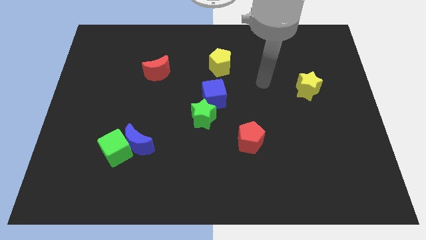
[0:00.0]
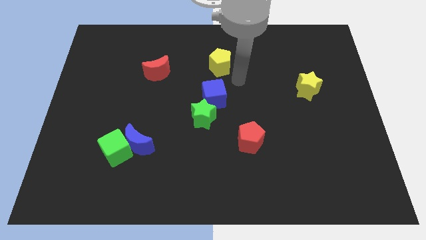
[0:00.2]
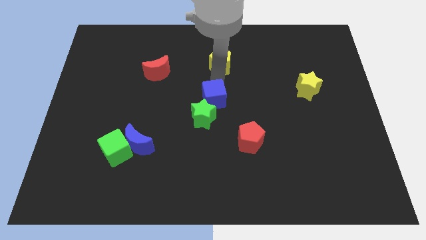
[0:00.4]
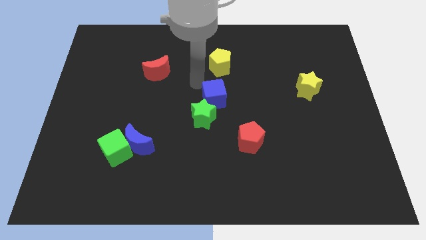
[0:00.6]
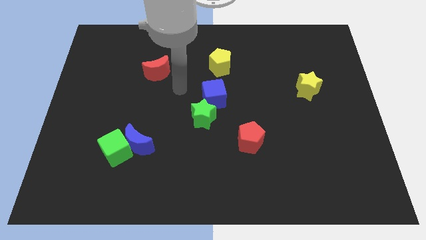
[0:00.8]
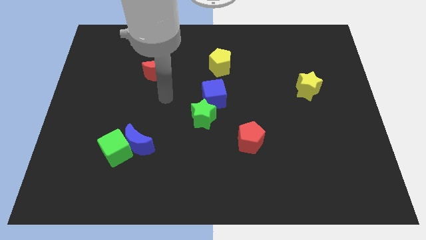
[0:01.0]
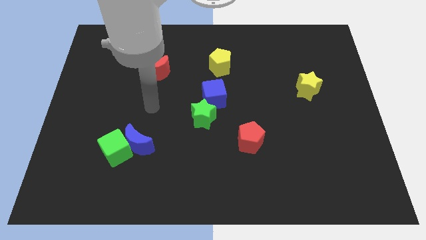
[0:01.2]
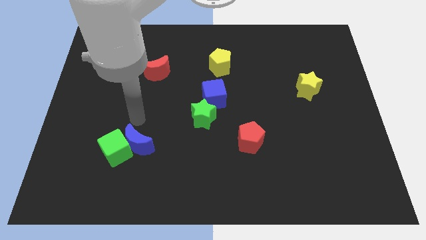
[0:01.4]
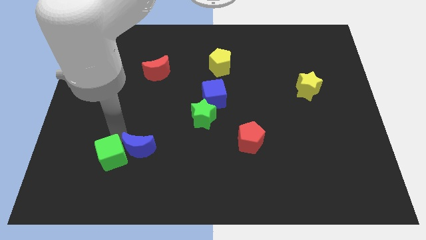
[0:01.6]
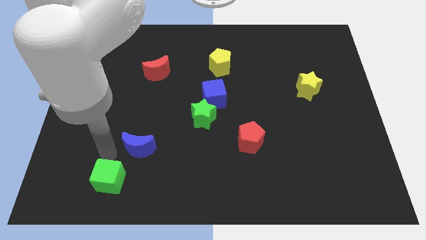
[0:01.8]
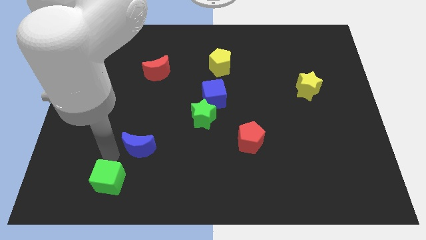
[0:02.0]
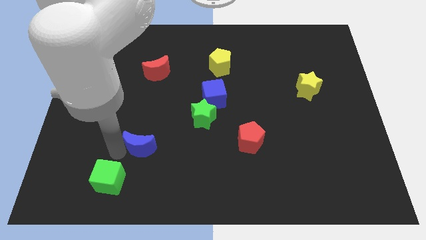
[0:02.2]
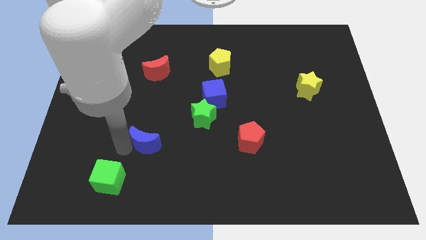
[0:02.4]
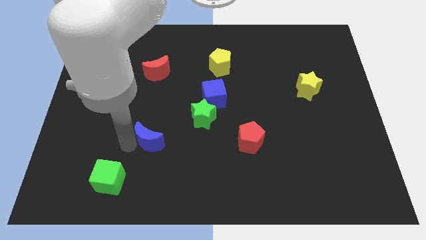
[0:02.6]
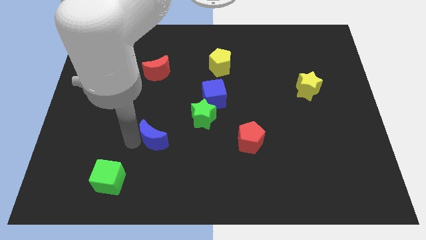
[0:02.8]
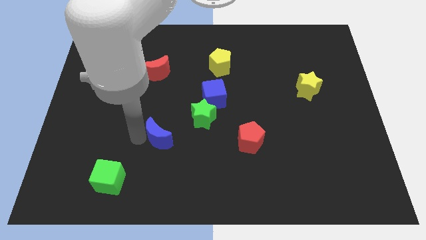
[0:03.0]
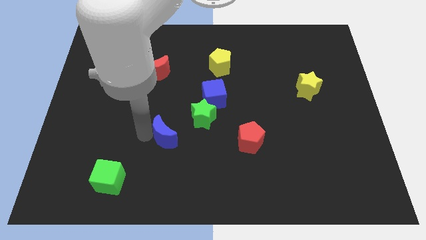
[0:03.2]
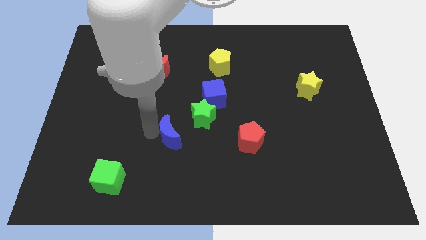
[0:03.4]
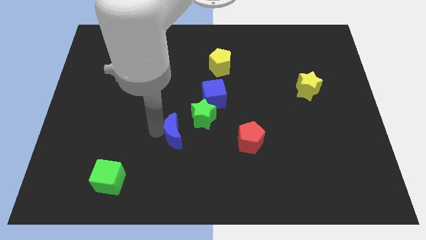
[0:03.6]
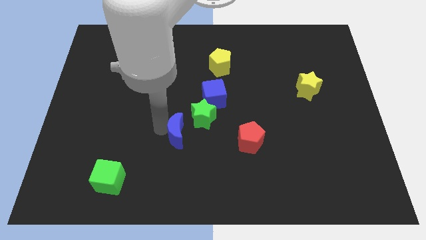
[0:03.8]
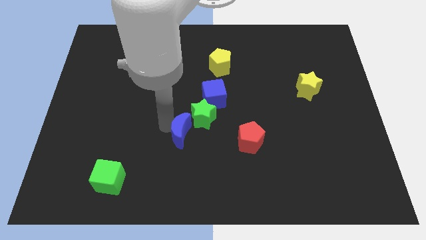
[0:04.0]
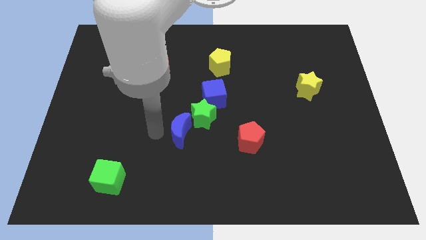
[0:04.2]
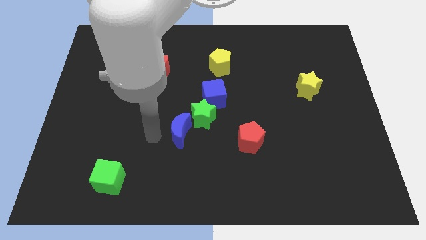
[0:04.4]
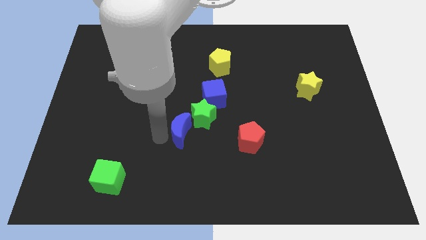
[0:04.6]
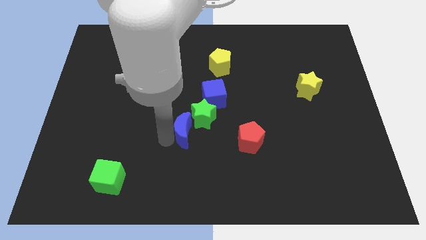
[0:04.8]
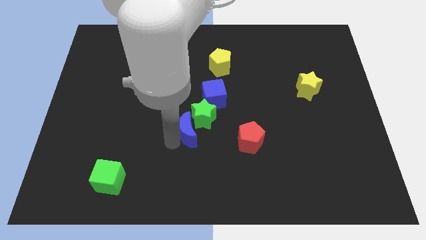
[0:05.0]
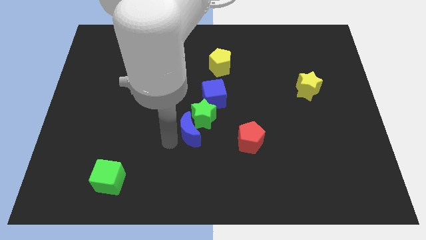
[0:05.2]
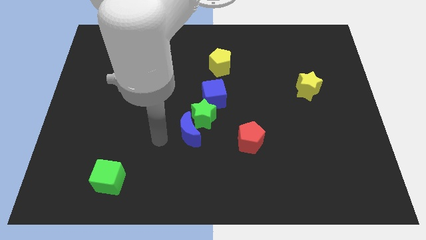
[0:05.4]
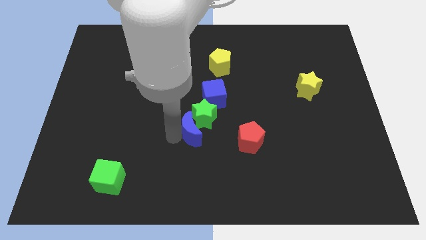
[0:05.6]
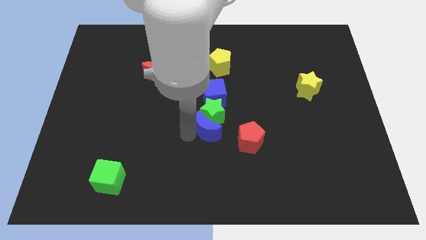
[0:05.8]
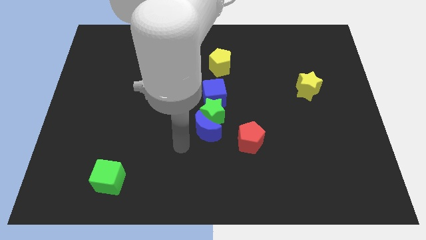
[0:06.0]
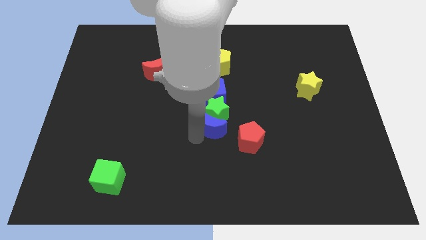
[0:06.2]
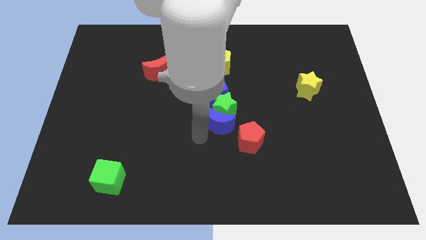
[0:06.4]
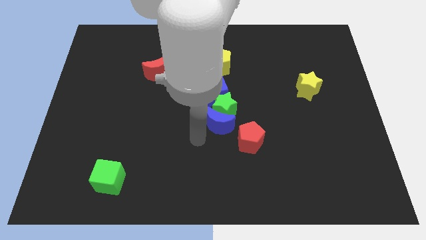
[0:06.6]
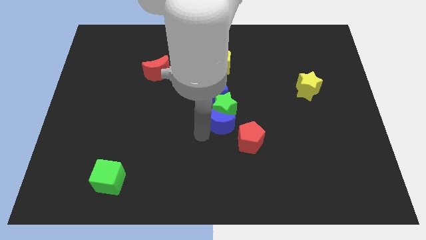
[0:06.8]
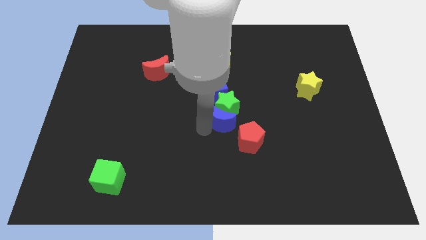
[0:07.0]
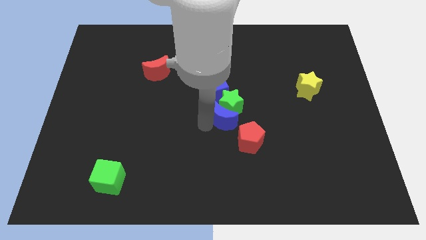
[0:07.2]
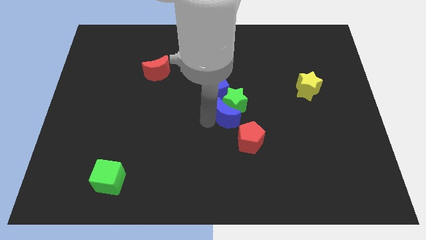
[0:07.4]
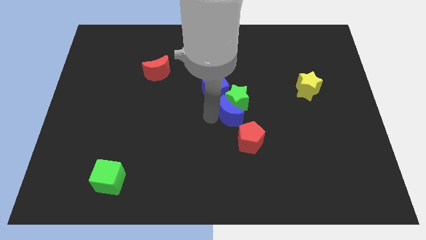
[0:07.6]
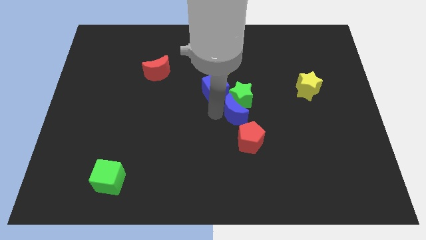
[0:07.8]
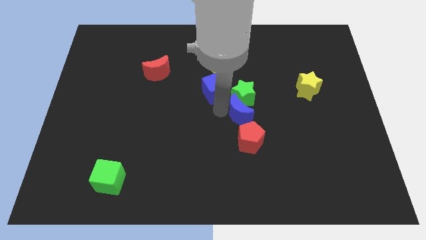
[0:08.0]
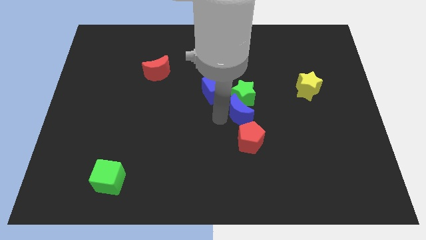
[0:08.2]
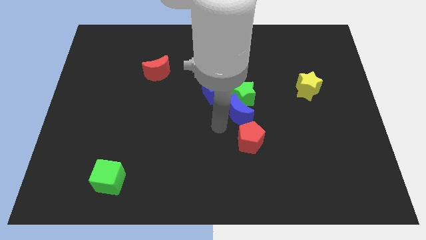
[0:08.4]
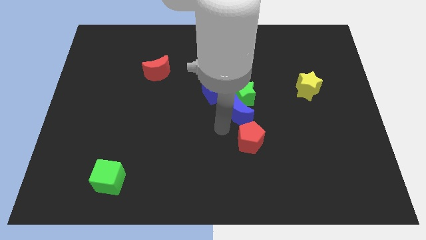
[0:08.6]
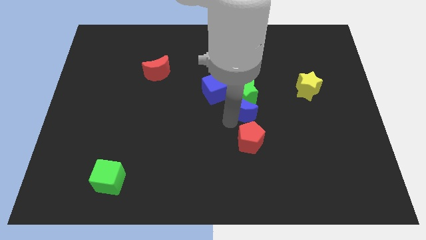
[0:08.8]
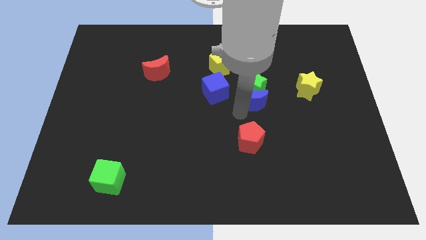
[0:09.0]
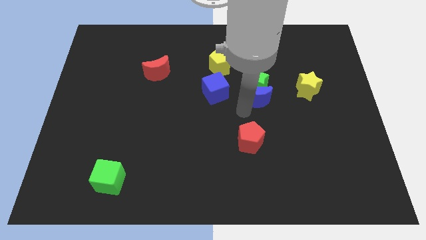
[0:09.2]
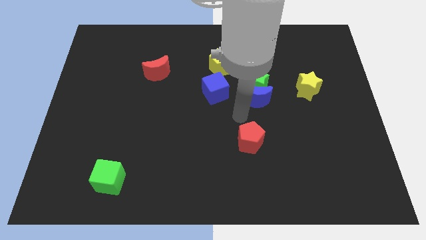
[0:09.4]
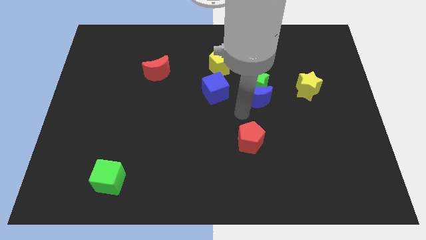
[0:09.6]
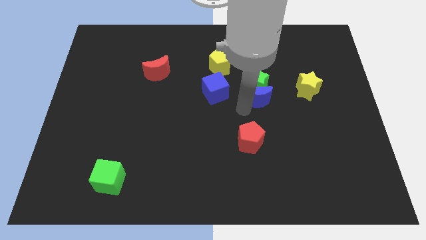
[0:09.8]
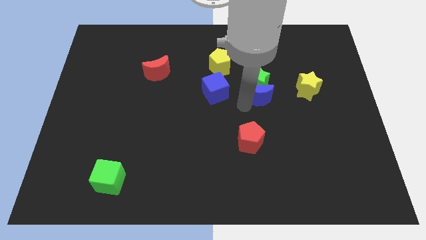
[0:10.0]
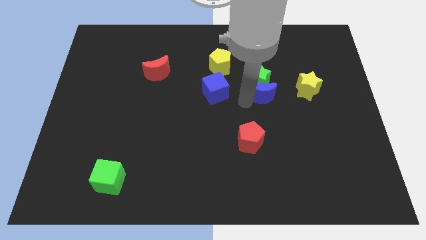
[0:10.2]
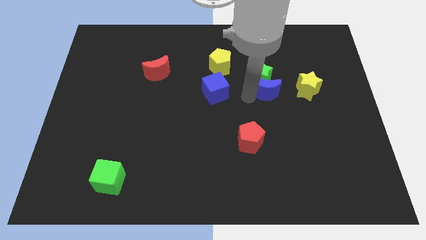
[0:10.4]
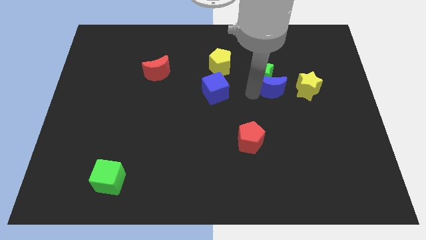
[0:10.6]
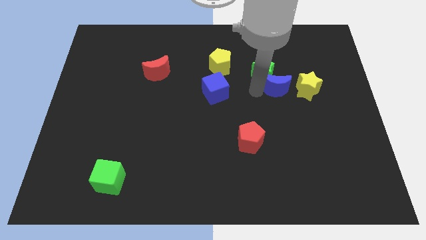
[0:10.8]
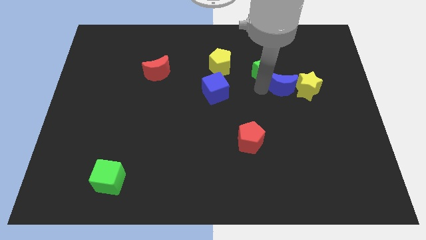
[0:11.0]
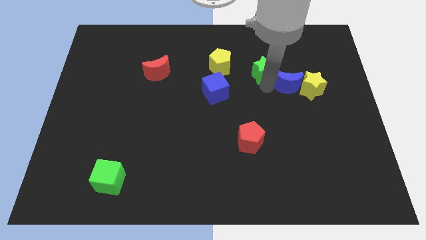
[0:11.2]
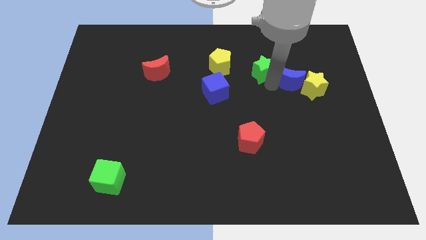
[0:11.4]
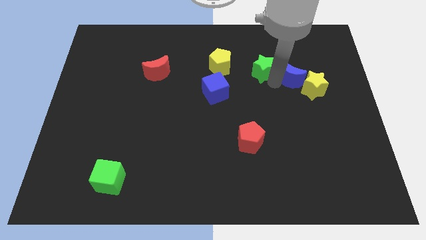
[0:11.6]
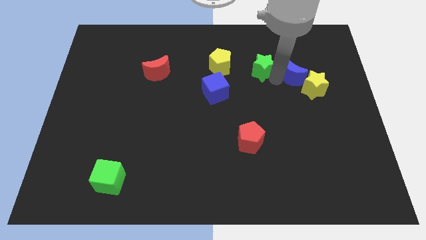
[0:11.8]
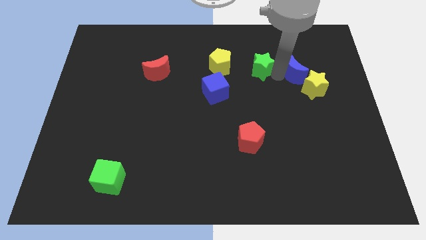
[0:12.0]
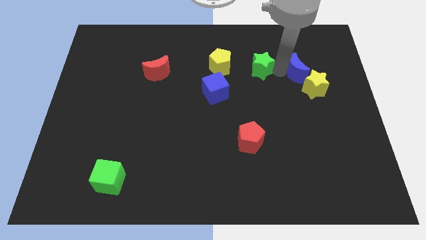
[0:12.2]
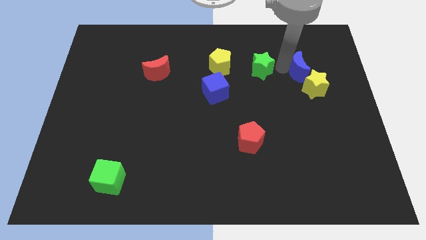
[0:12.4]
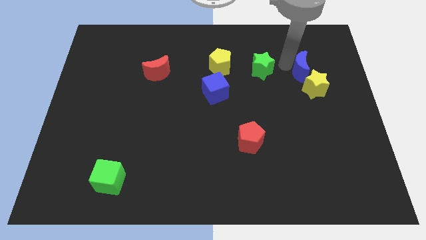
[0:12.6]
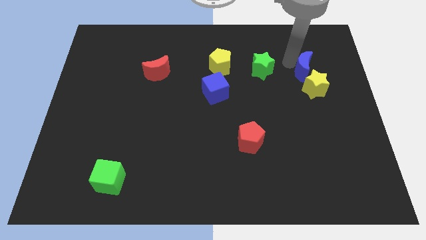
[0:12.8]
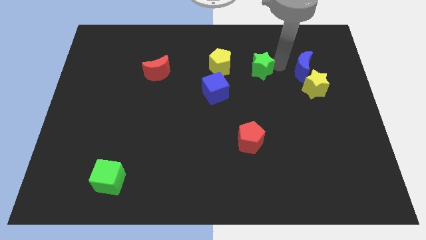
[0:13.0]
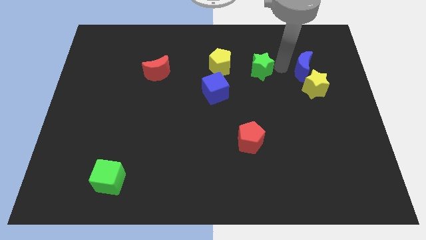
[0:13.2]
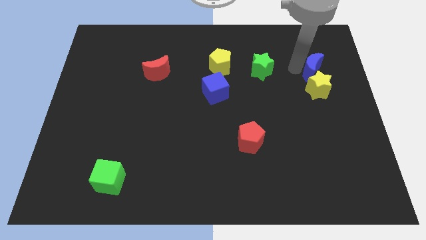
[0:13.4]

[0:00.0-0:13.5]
put the blue moon to the top right side of the yellow star

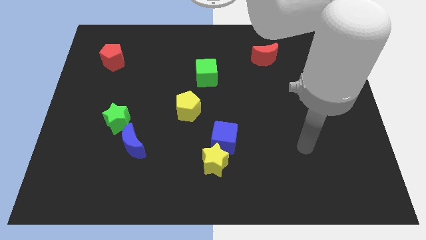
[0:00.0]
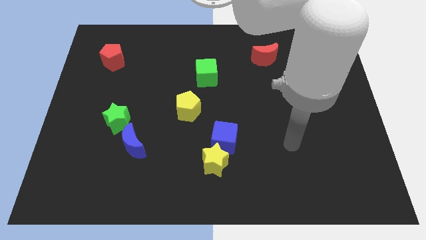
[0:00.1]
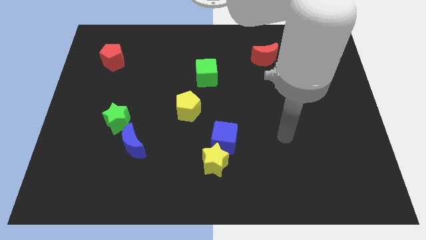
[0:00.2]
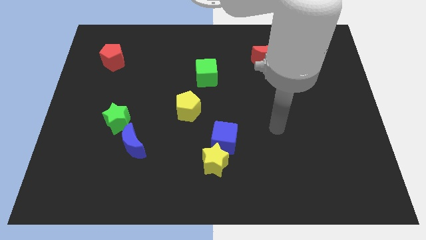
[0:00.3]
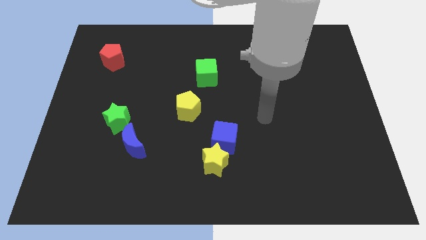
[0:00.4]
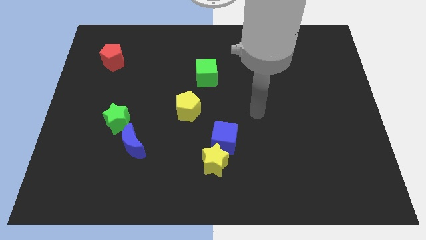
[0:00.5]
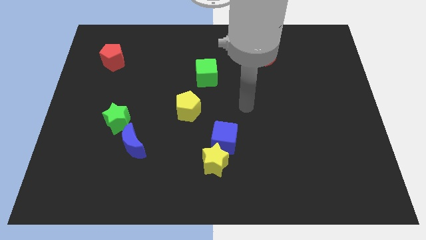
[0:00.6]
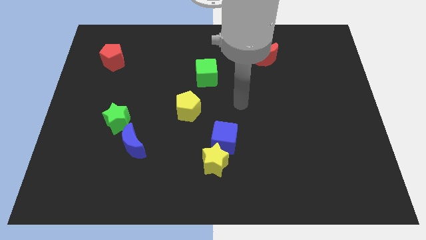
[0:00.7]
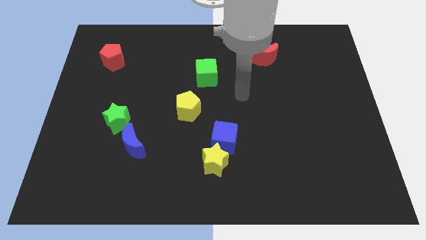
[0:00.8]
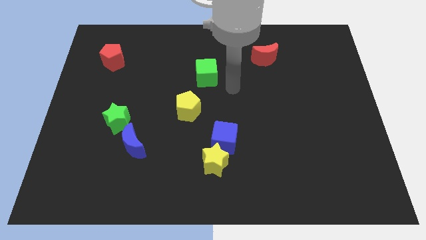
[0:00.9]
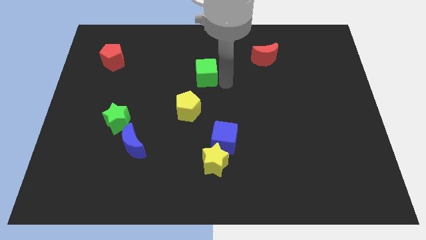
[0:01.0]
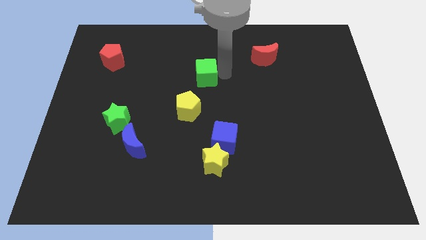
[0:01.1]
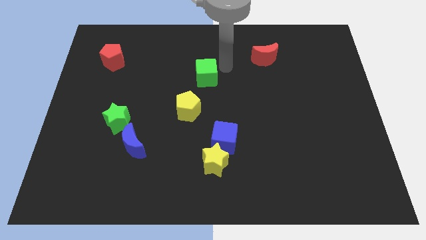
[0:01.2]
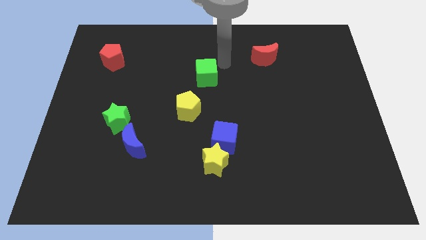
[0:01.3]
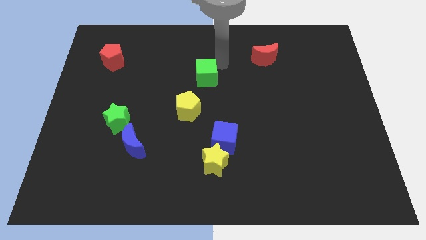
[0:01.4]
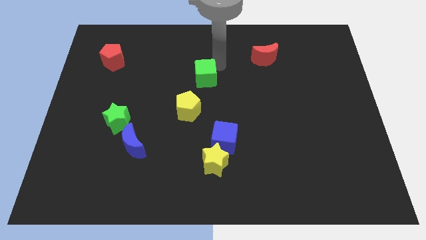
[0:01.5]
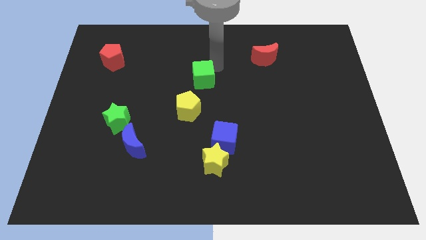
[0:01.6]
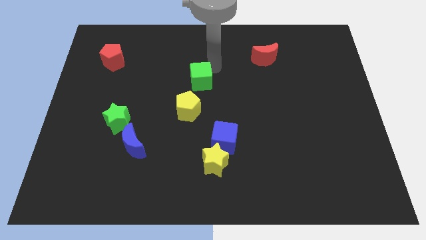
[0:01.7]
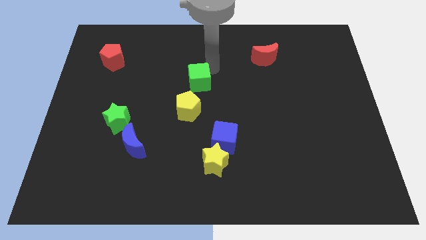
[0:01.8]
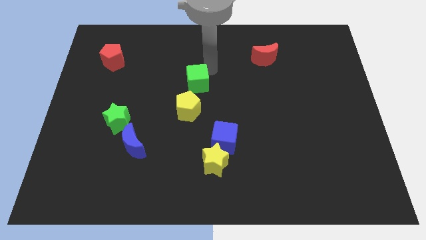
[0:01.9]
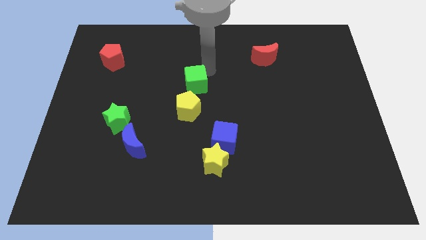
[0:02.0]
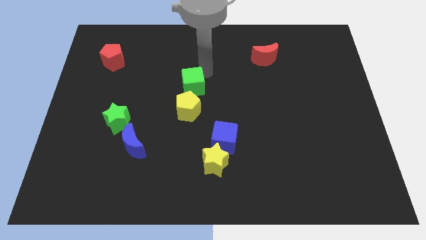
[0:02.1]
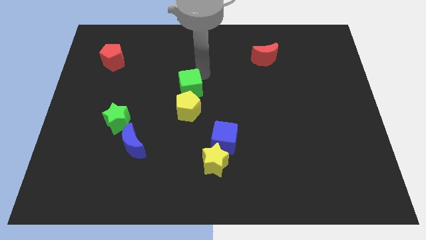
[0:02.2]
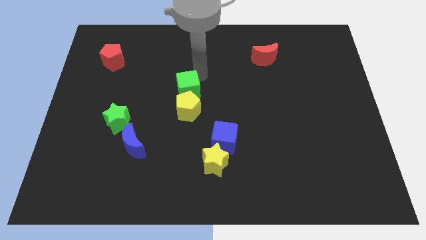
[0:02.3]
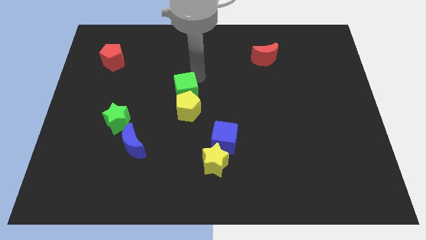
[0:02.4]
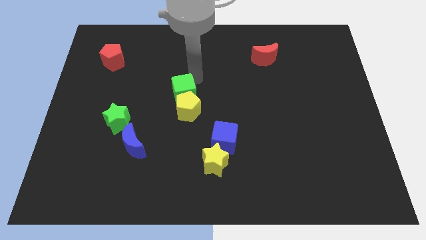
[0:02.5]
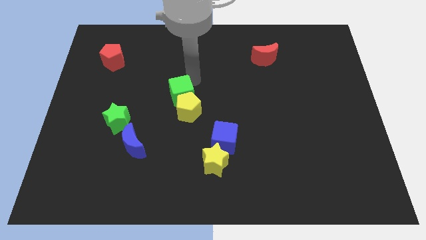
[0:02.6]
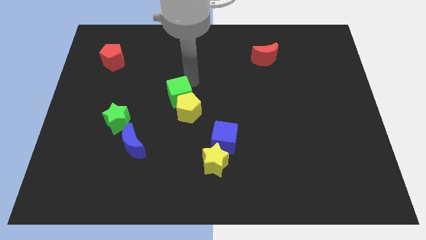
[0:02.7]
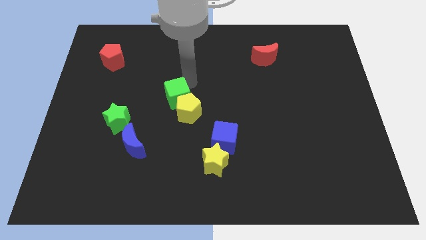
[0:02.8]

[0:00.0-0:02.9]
slide the green cube left of the yellow pentagon
